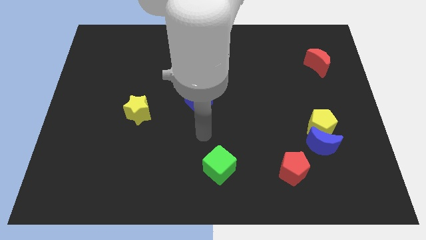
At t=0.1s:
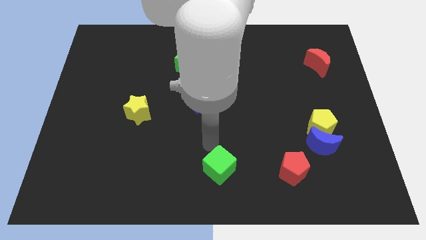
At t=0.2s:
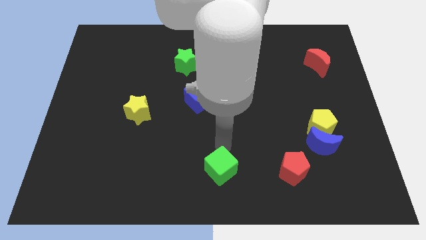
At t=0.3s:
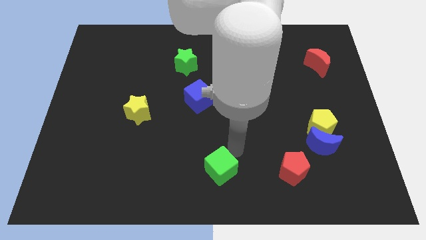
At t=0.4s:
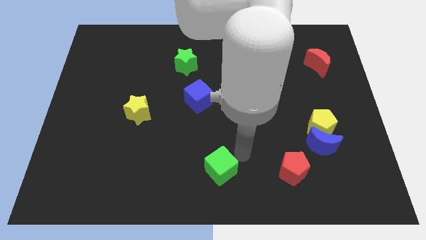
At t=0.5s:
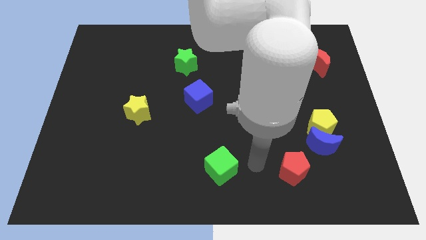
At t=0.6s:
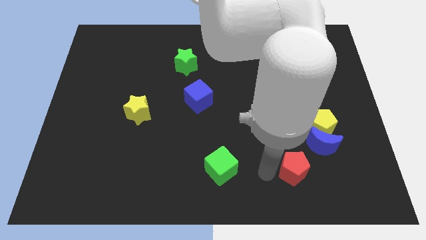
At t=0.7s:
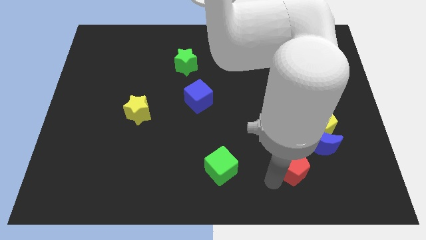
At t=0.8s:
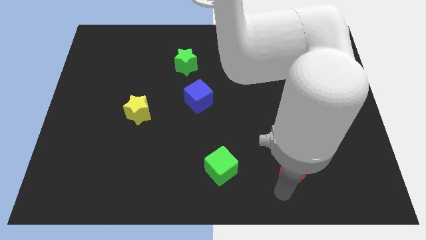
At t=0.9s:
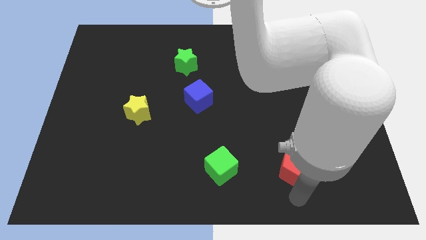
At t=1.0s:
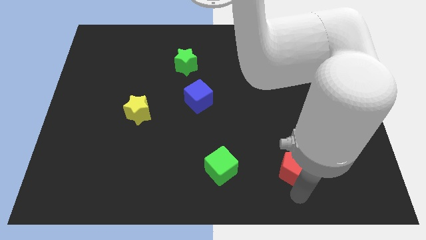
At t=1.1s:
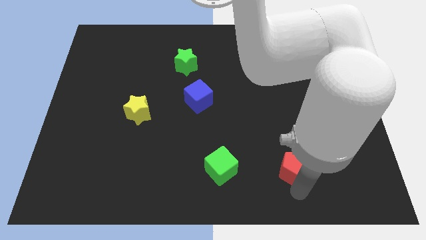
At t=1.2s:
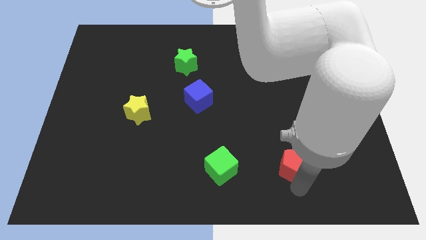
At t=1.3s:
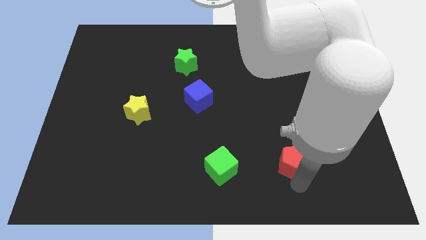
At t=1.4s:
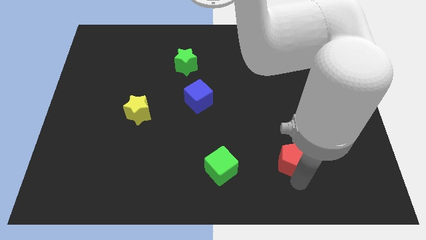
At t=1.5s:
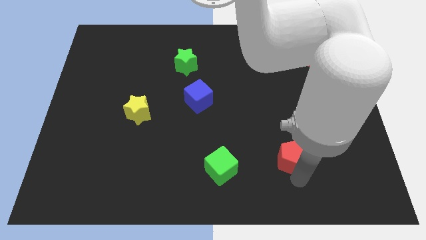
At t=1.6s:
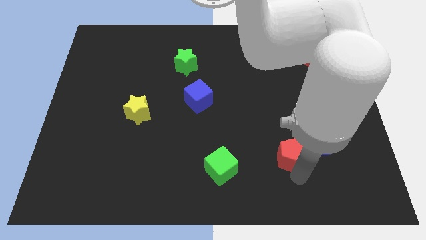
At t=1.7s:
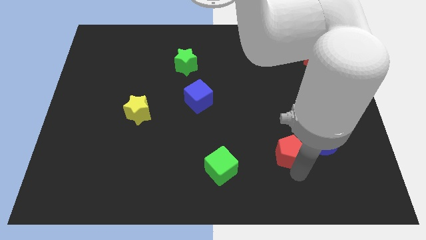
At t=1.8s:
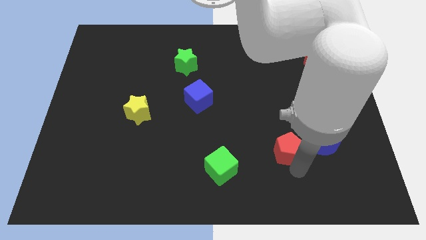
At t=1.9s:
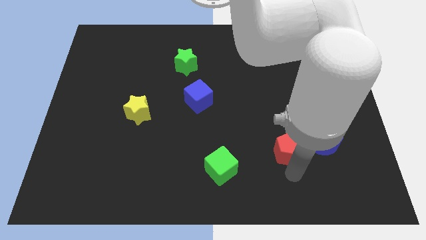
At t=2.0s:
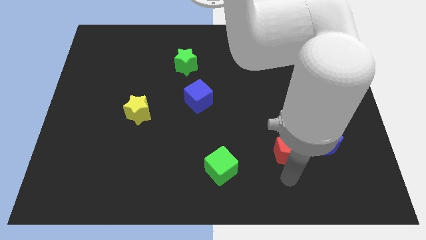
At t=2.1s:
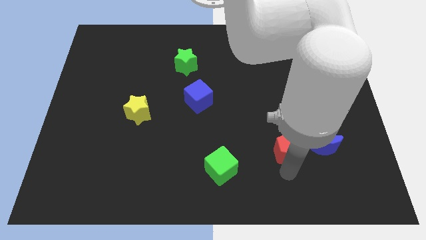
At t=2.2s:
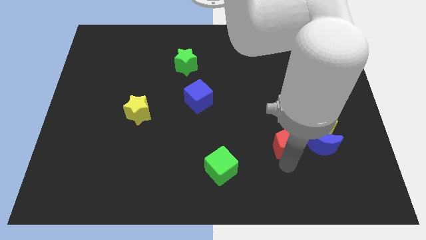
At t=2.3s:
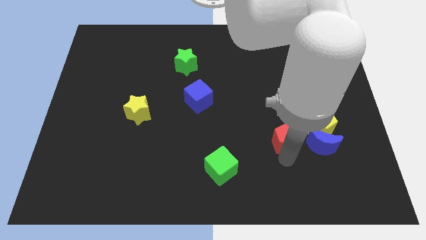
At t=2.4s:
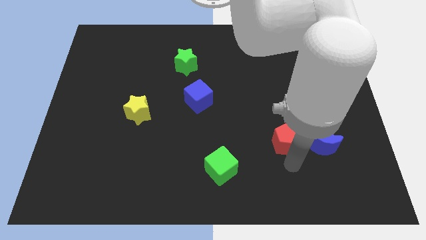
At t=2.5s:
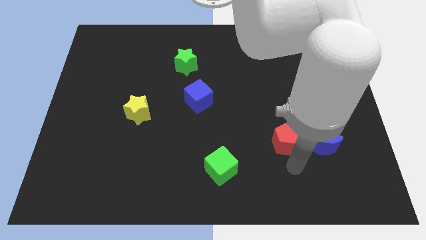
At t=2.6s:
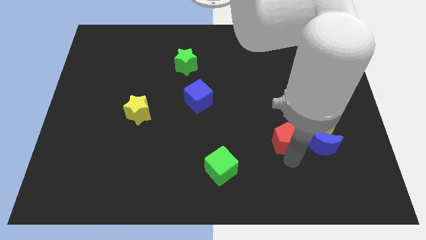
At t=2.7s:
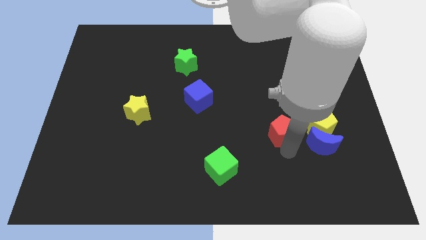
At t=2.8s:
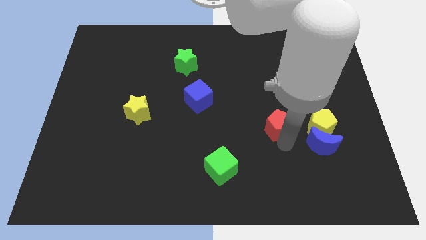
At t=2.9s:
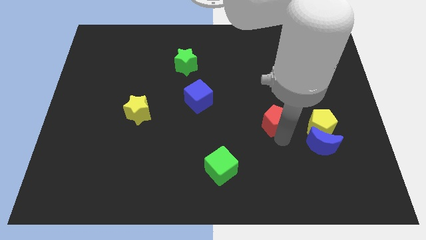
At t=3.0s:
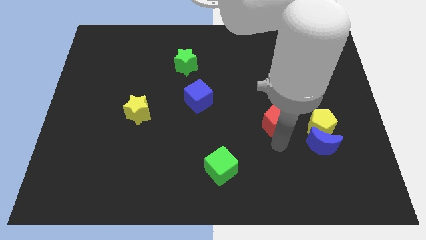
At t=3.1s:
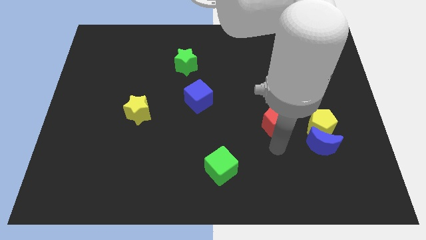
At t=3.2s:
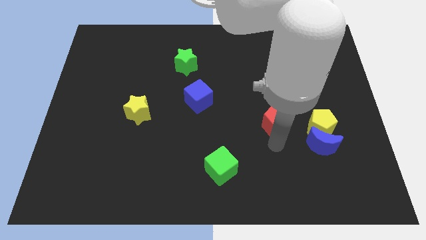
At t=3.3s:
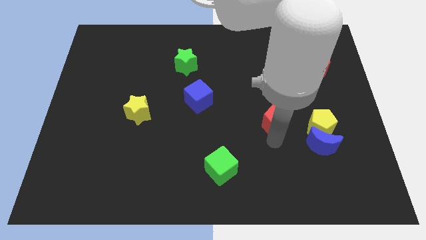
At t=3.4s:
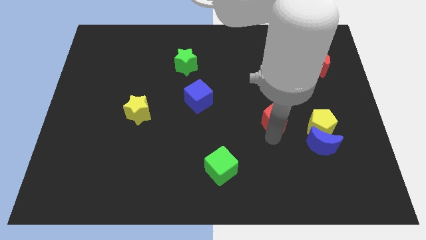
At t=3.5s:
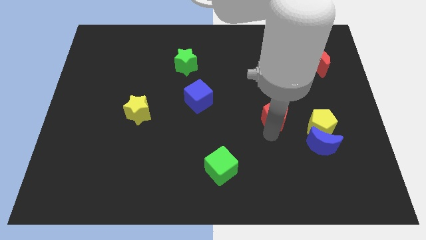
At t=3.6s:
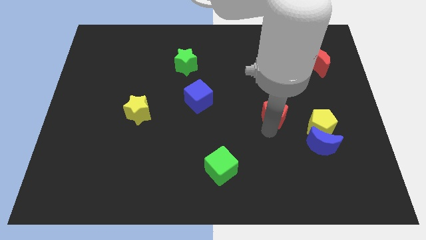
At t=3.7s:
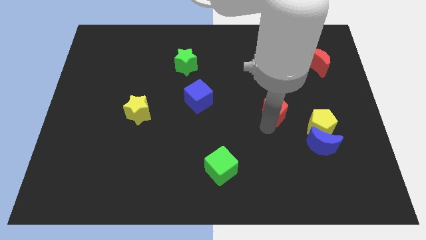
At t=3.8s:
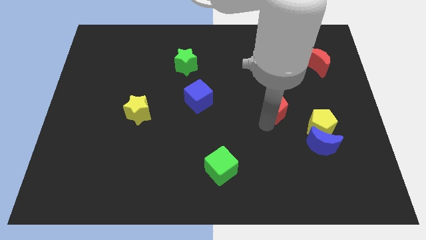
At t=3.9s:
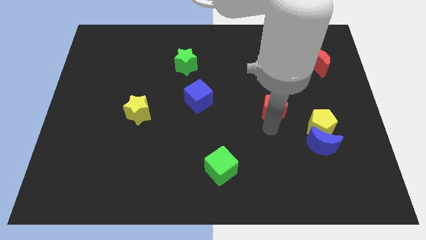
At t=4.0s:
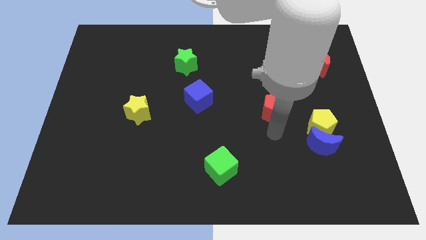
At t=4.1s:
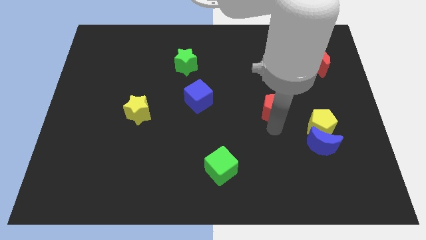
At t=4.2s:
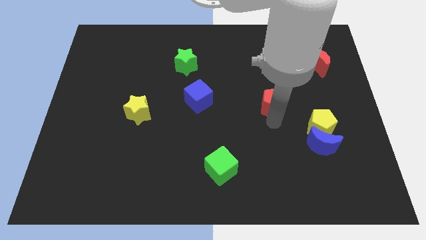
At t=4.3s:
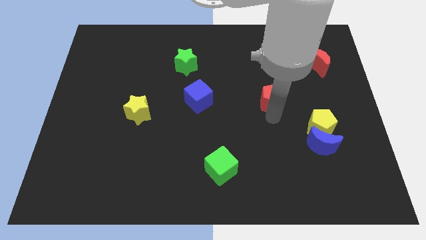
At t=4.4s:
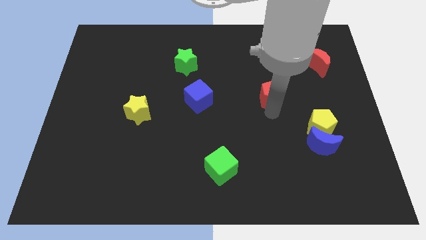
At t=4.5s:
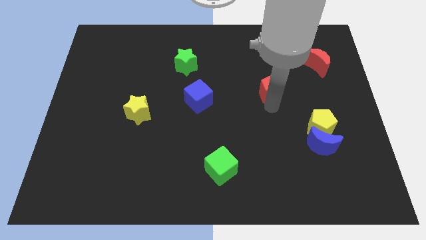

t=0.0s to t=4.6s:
slide the red pentagon upwards

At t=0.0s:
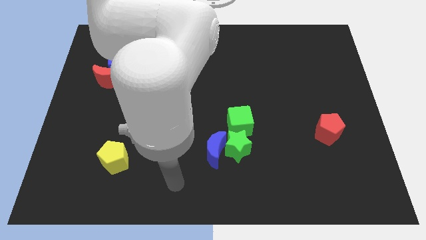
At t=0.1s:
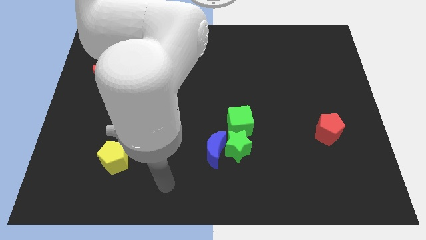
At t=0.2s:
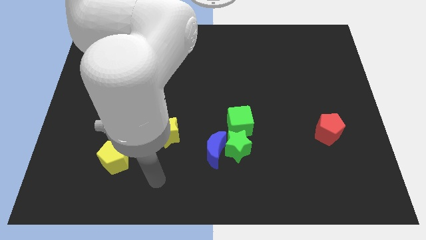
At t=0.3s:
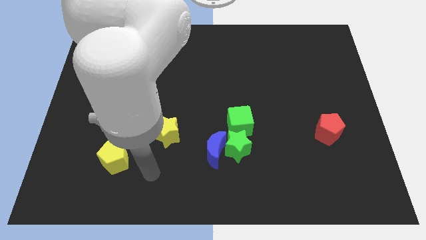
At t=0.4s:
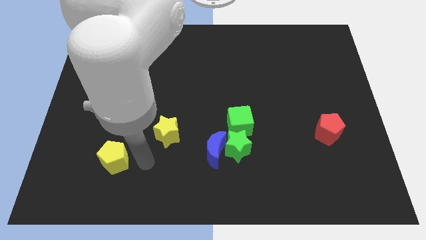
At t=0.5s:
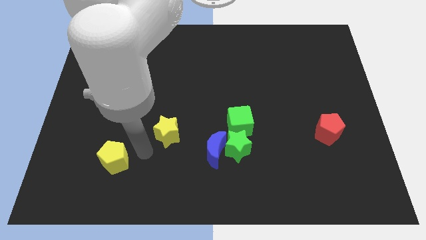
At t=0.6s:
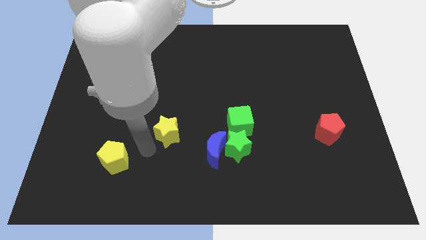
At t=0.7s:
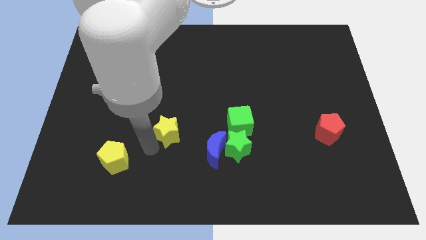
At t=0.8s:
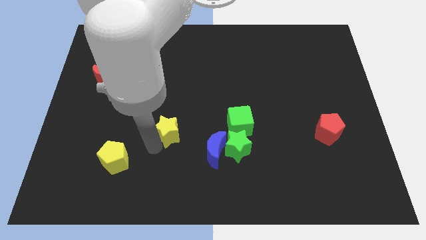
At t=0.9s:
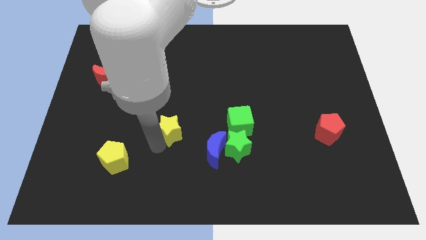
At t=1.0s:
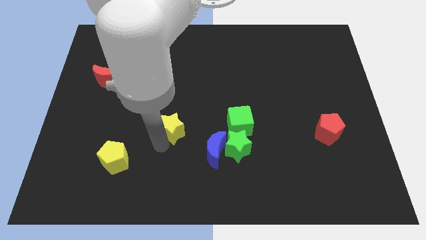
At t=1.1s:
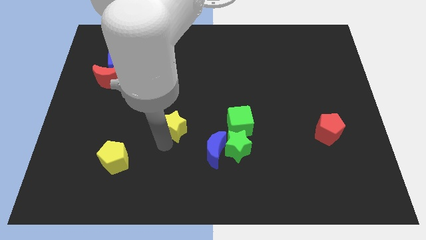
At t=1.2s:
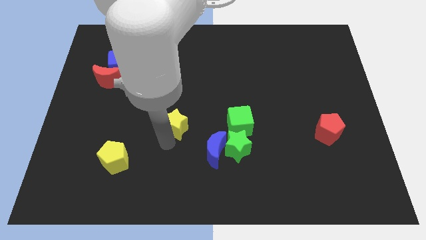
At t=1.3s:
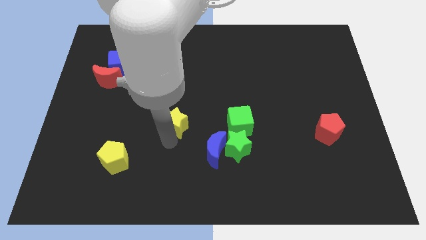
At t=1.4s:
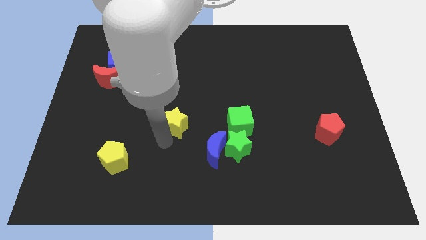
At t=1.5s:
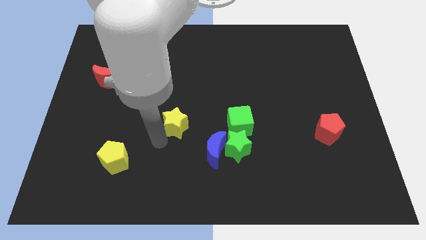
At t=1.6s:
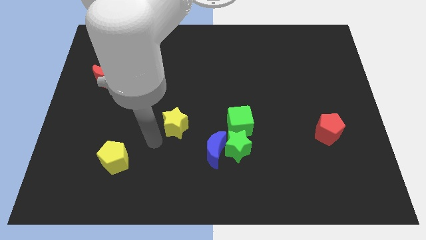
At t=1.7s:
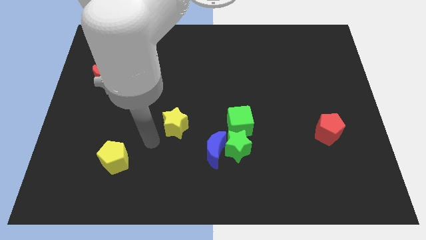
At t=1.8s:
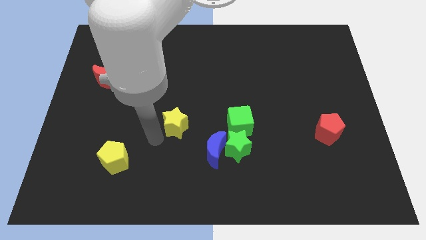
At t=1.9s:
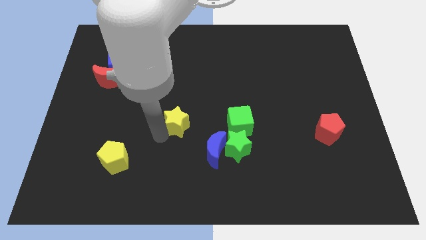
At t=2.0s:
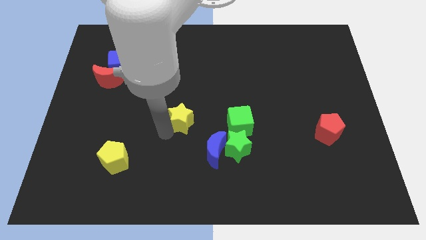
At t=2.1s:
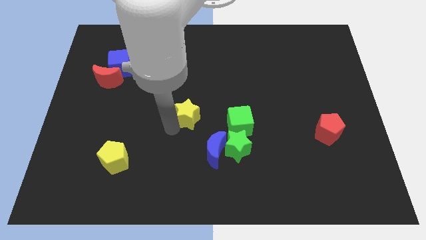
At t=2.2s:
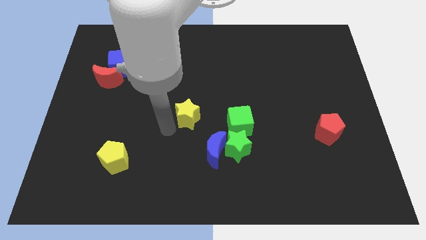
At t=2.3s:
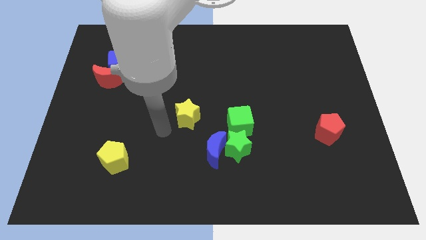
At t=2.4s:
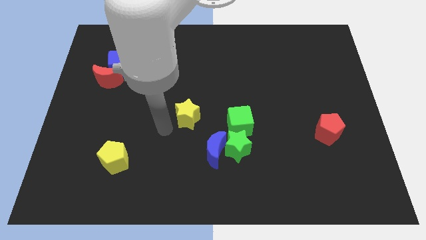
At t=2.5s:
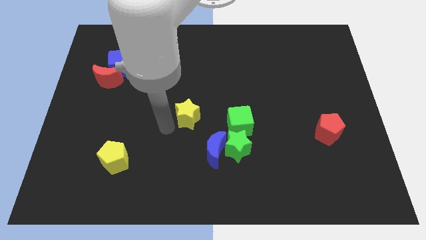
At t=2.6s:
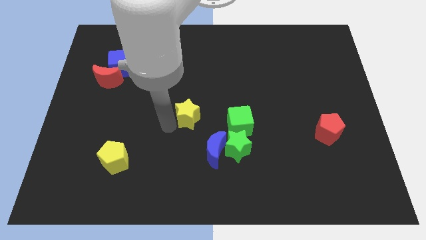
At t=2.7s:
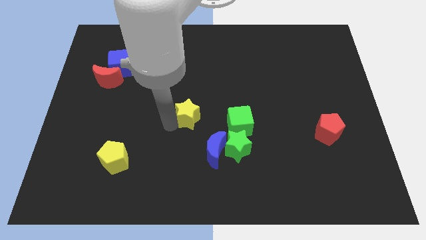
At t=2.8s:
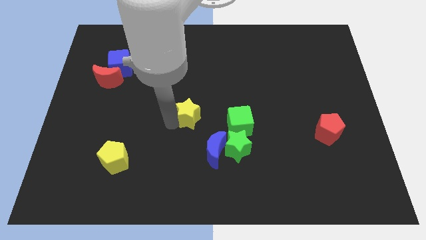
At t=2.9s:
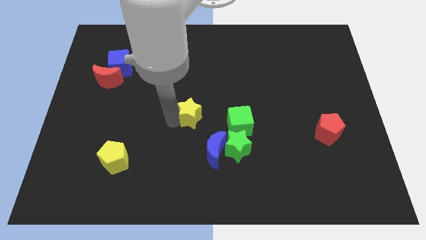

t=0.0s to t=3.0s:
slide the yellow star diagonally upwards and right a bit

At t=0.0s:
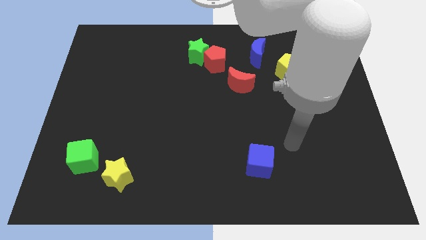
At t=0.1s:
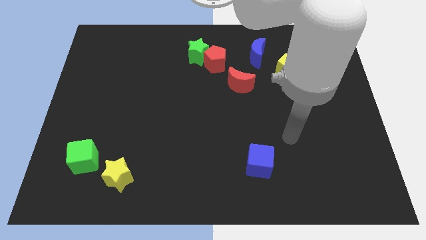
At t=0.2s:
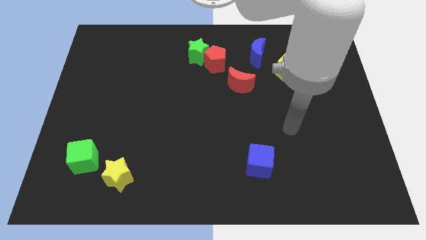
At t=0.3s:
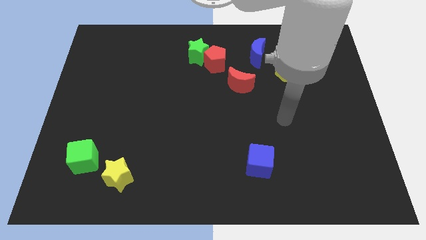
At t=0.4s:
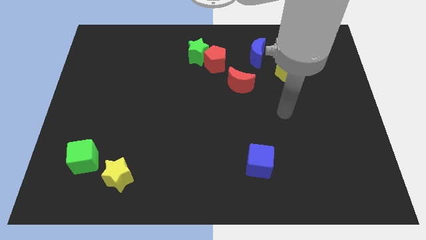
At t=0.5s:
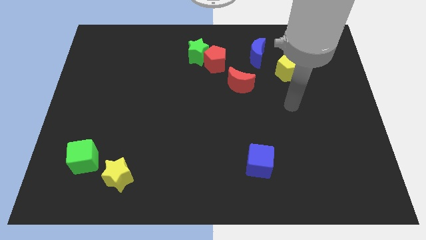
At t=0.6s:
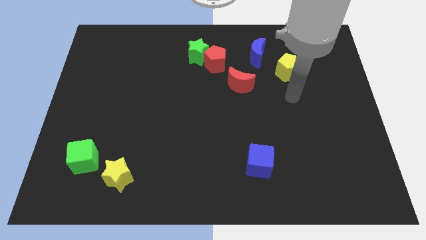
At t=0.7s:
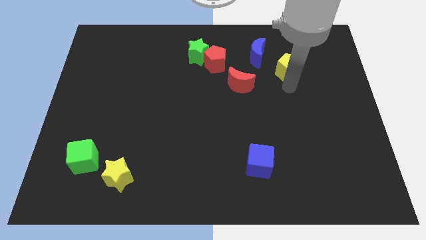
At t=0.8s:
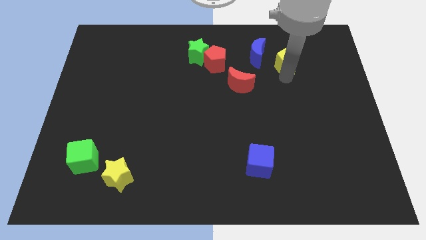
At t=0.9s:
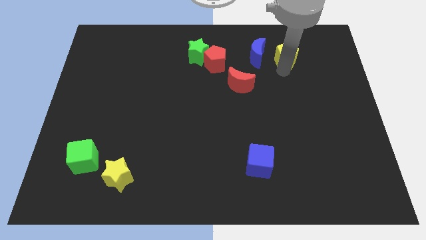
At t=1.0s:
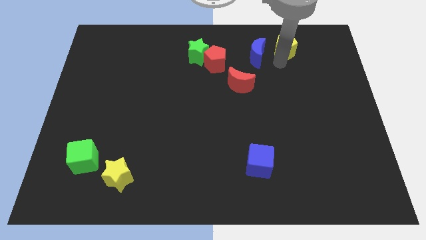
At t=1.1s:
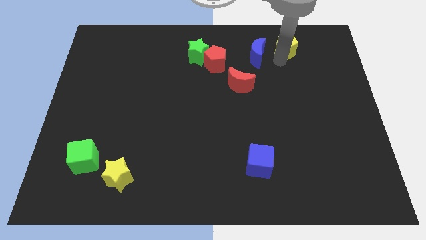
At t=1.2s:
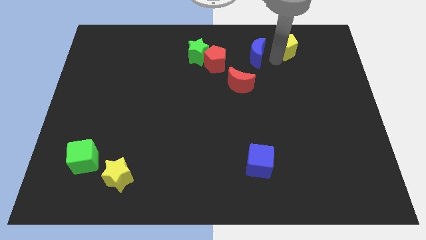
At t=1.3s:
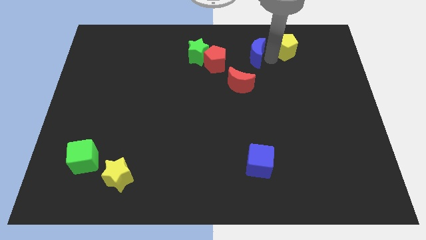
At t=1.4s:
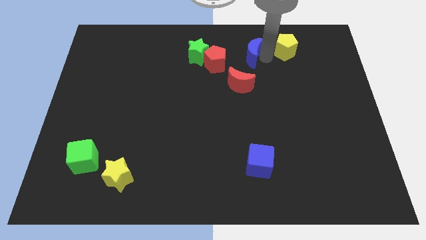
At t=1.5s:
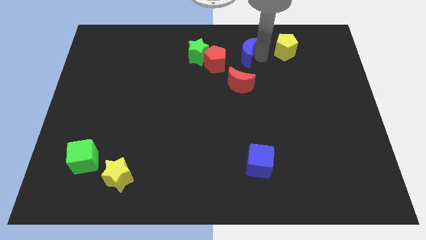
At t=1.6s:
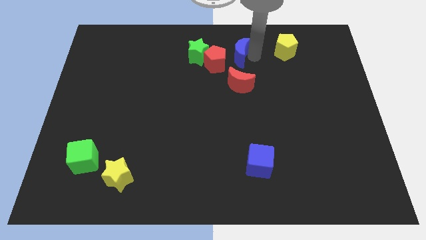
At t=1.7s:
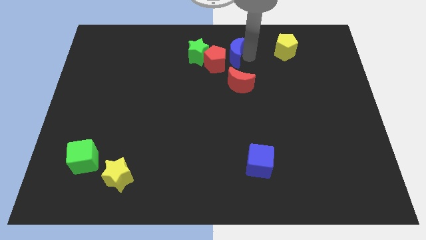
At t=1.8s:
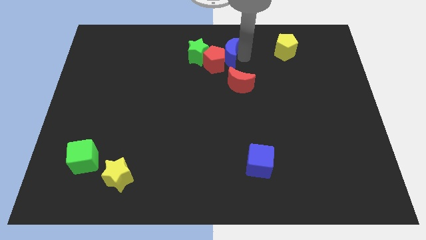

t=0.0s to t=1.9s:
move the blue moon slightly left
